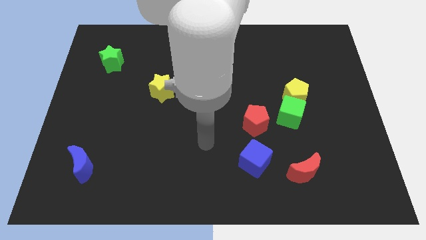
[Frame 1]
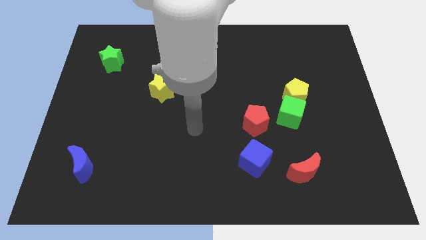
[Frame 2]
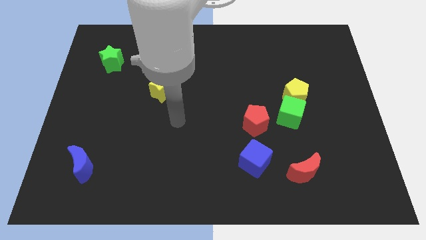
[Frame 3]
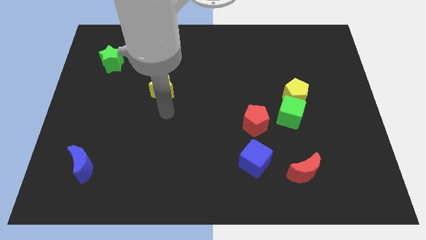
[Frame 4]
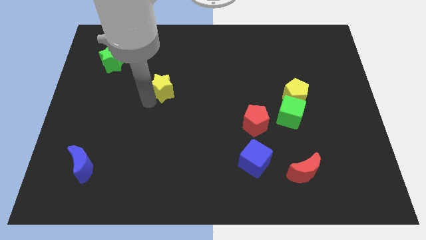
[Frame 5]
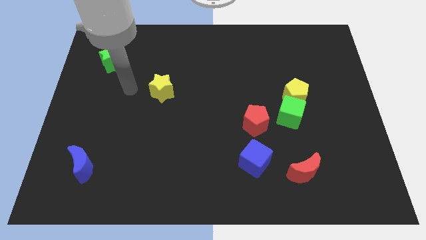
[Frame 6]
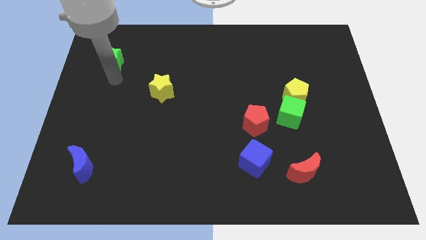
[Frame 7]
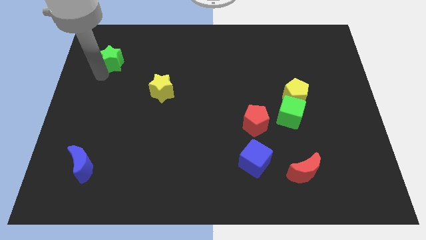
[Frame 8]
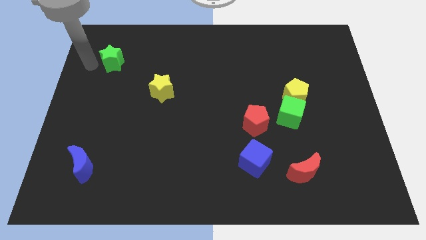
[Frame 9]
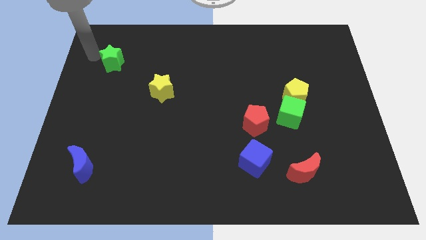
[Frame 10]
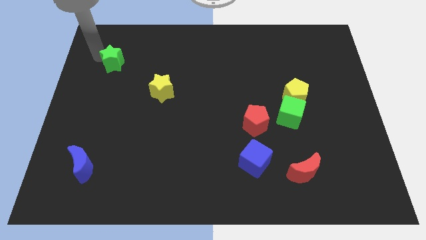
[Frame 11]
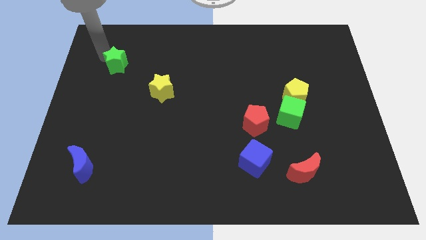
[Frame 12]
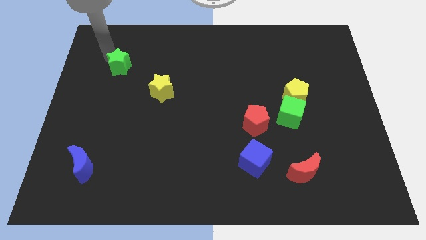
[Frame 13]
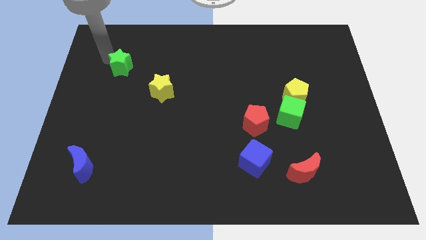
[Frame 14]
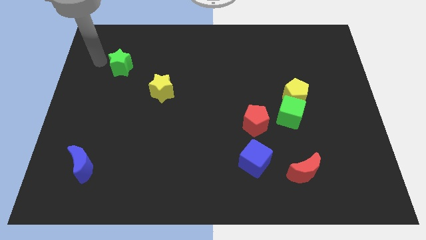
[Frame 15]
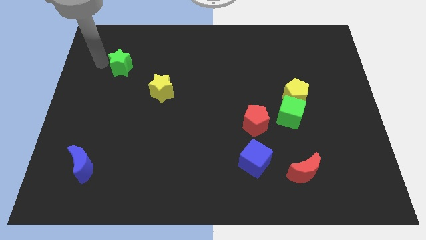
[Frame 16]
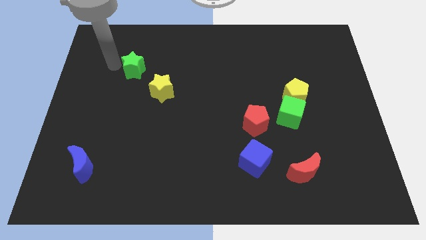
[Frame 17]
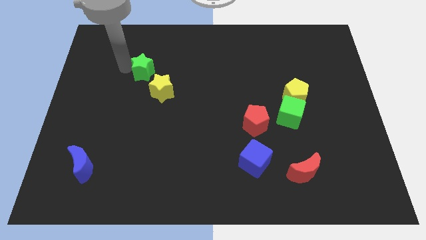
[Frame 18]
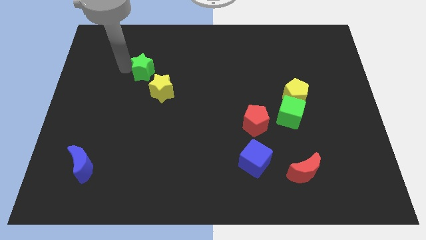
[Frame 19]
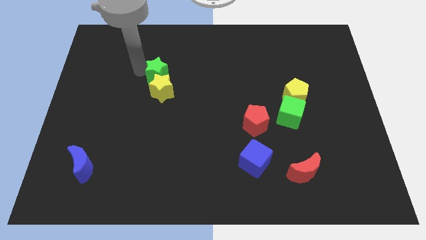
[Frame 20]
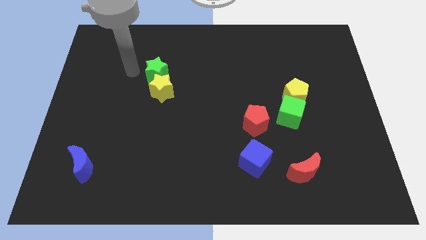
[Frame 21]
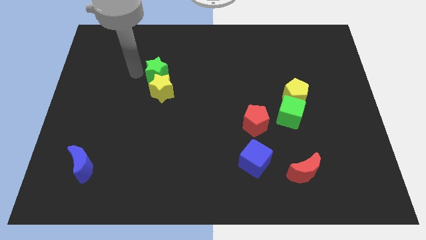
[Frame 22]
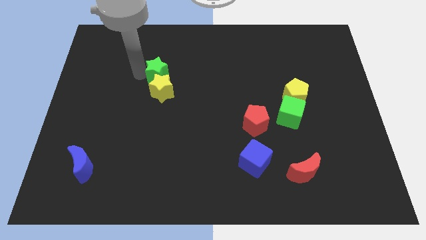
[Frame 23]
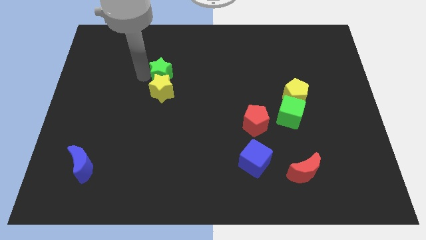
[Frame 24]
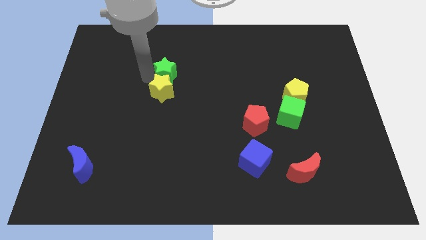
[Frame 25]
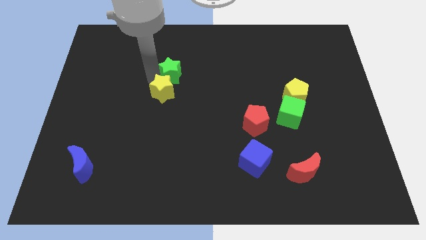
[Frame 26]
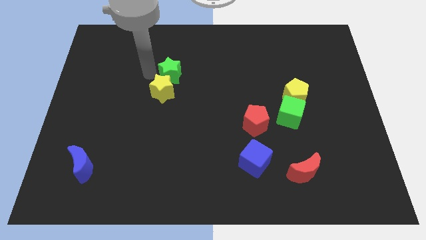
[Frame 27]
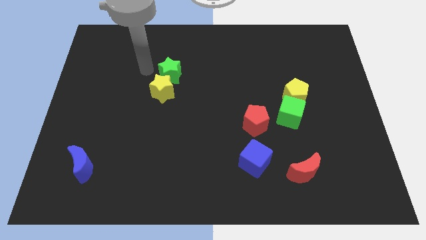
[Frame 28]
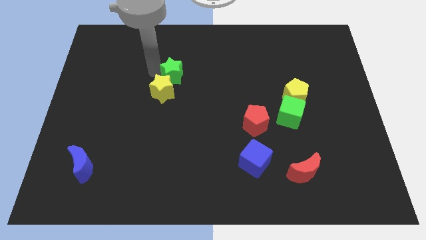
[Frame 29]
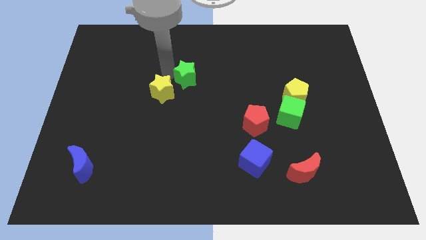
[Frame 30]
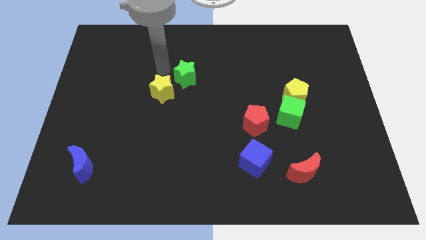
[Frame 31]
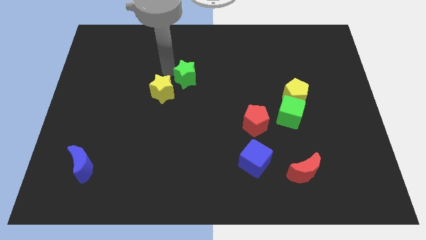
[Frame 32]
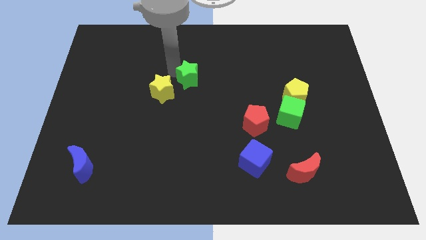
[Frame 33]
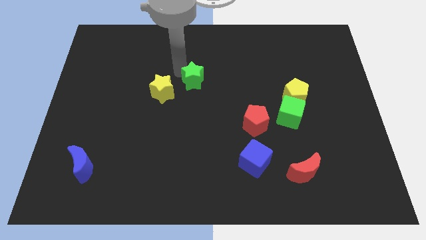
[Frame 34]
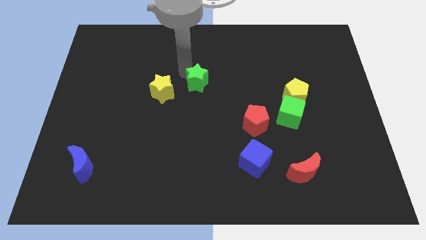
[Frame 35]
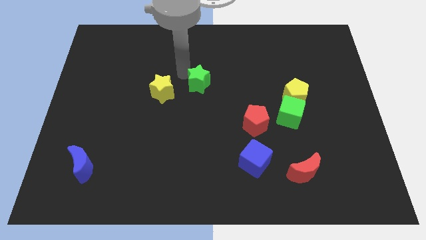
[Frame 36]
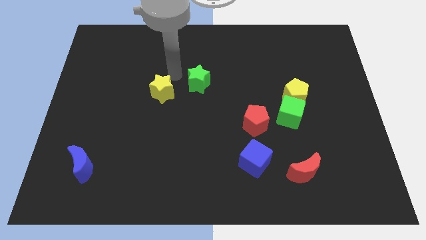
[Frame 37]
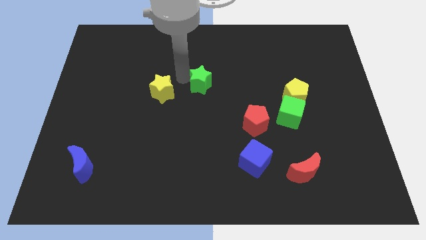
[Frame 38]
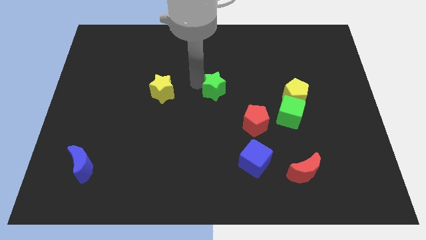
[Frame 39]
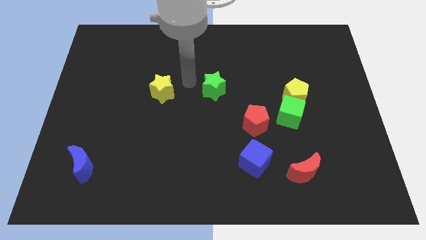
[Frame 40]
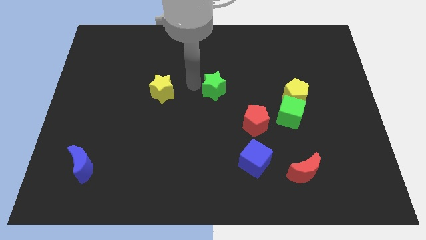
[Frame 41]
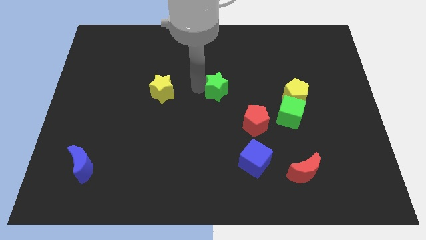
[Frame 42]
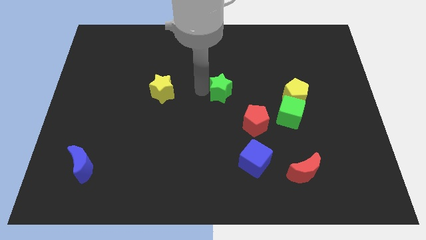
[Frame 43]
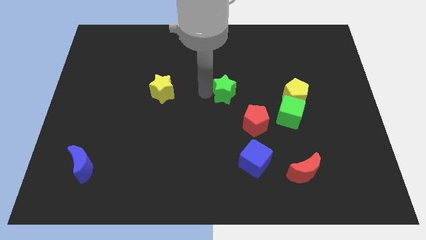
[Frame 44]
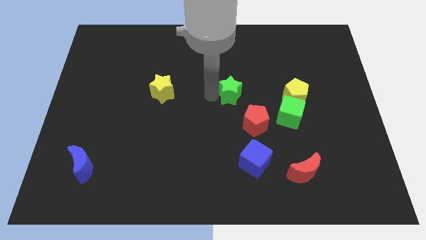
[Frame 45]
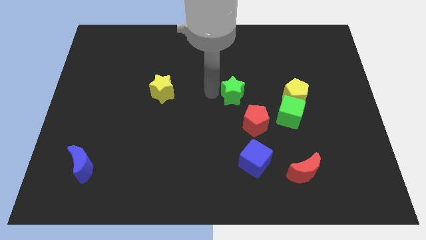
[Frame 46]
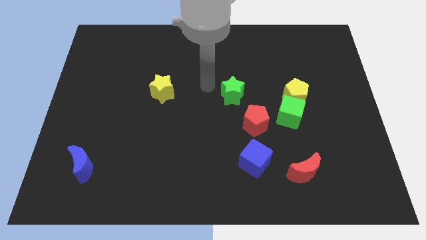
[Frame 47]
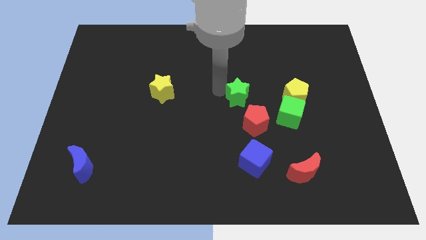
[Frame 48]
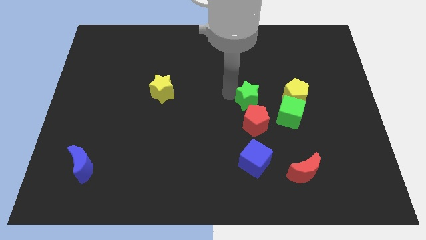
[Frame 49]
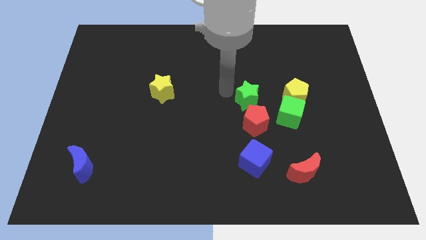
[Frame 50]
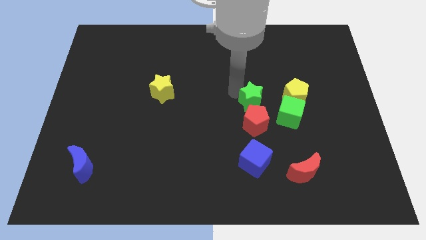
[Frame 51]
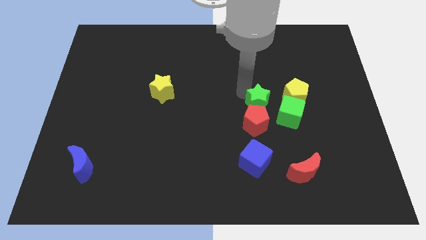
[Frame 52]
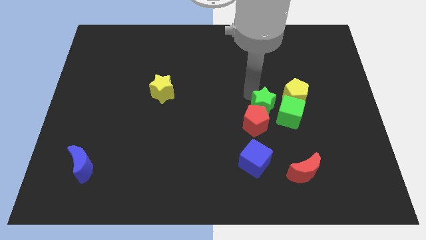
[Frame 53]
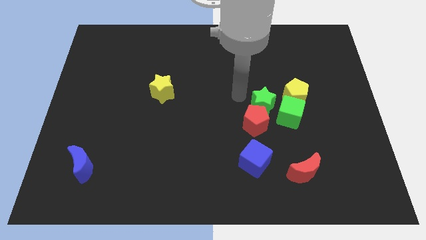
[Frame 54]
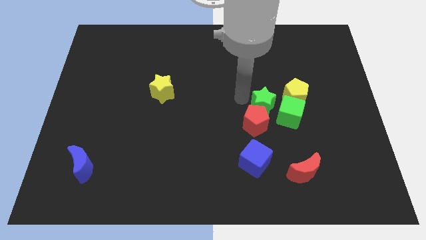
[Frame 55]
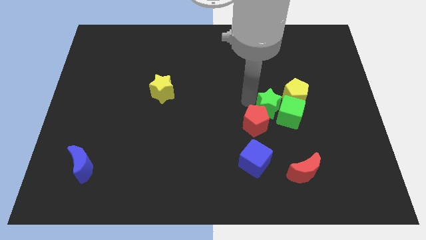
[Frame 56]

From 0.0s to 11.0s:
put the green star towards the green cube

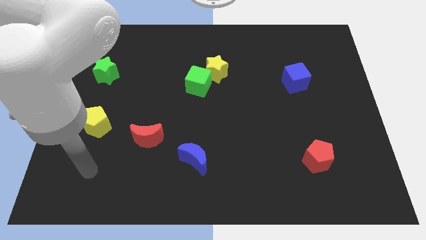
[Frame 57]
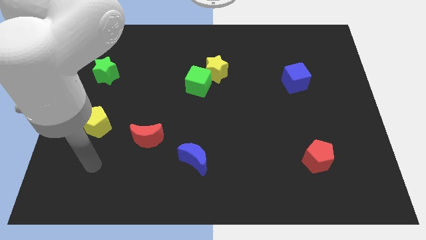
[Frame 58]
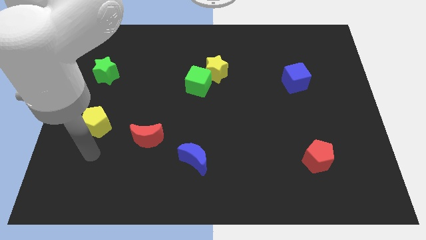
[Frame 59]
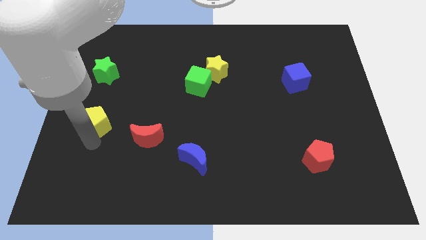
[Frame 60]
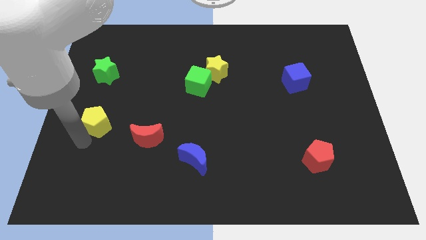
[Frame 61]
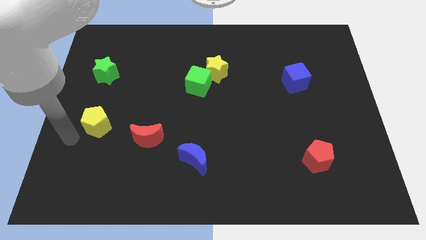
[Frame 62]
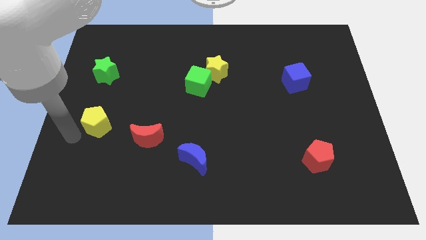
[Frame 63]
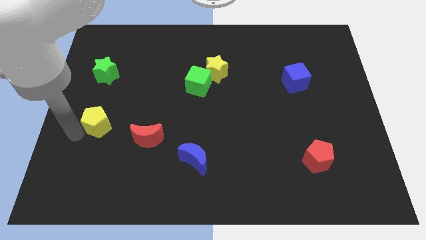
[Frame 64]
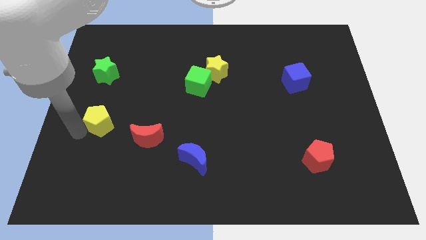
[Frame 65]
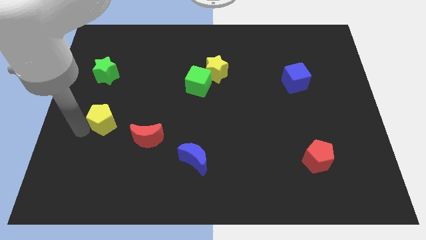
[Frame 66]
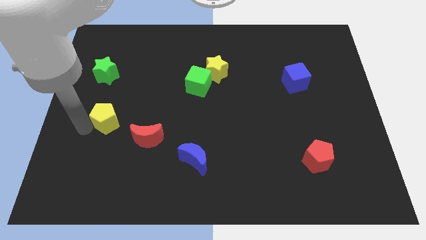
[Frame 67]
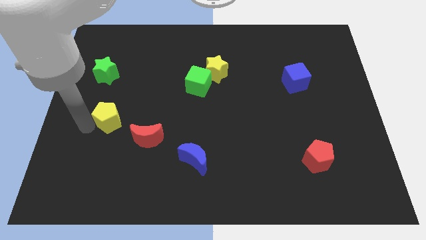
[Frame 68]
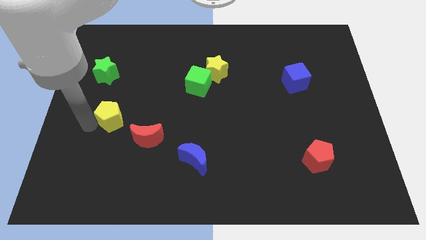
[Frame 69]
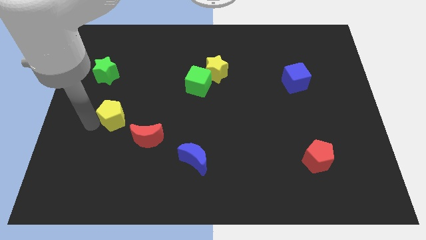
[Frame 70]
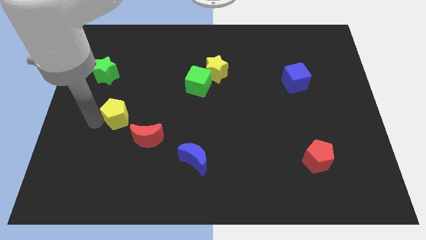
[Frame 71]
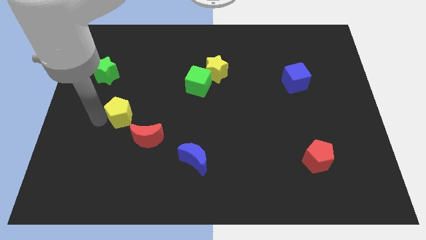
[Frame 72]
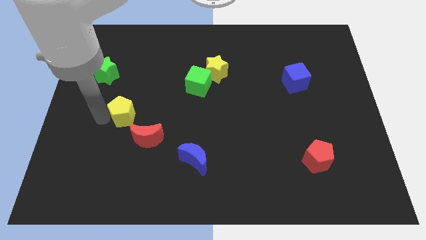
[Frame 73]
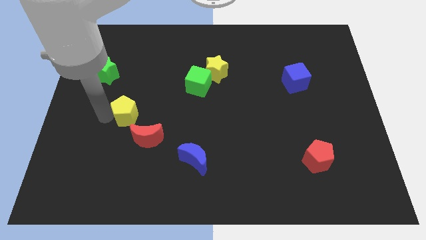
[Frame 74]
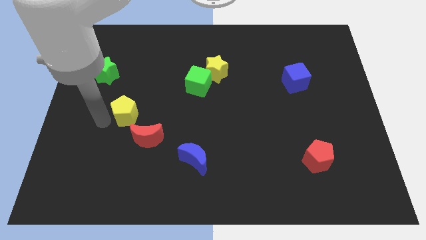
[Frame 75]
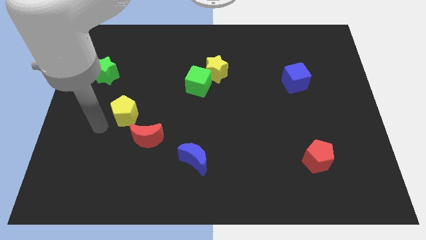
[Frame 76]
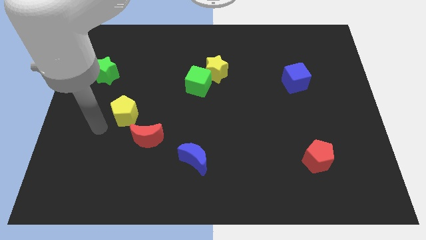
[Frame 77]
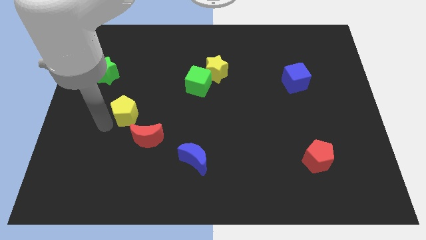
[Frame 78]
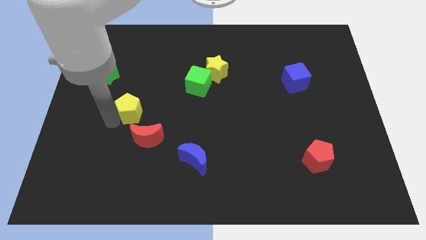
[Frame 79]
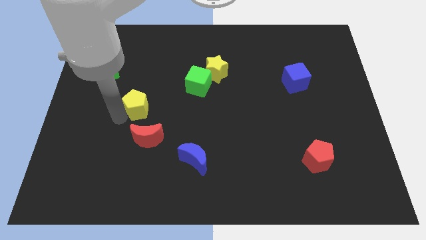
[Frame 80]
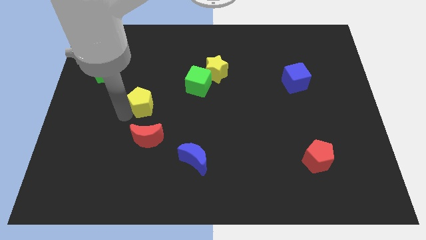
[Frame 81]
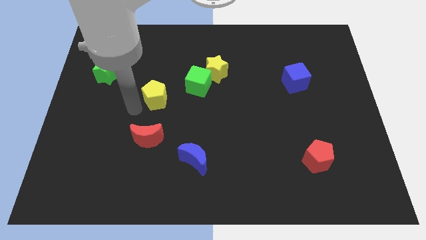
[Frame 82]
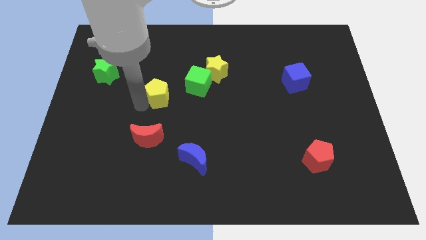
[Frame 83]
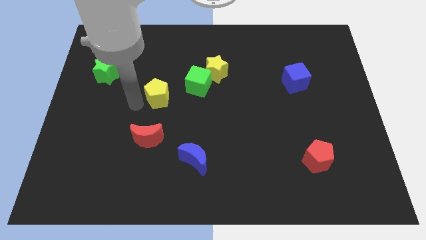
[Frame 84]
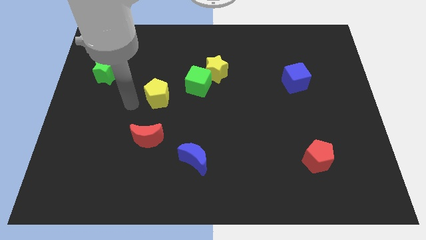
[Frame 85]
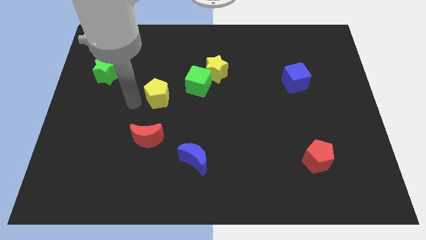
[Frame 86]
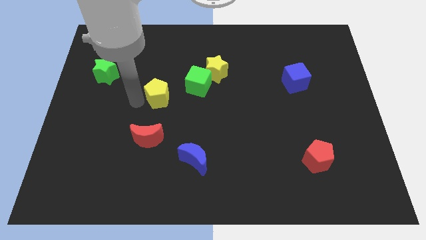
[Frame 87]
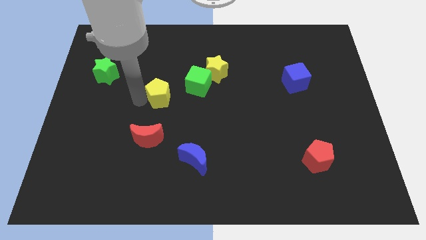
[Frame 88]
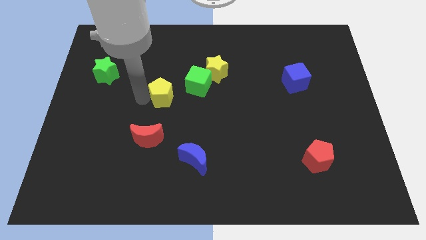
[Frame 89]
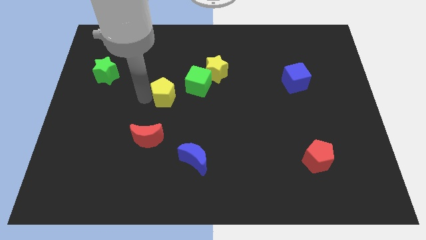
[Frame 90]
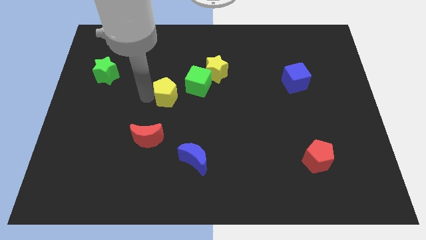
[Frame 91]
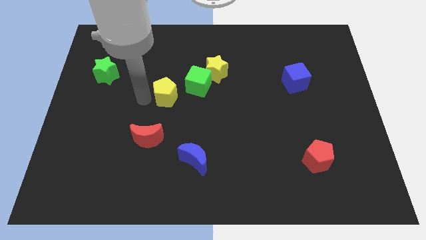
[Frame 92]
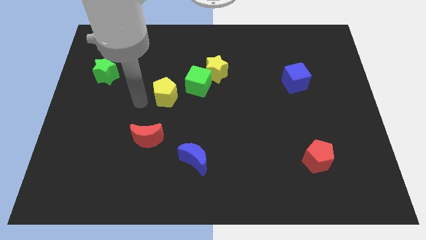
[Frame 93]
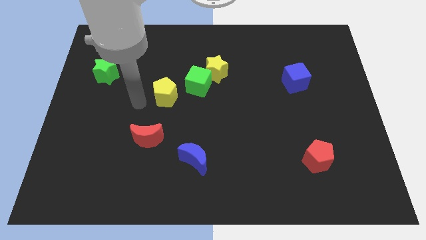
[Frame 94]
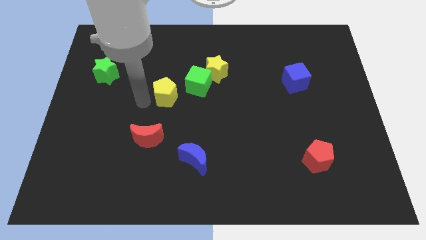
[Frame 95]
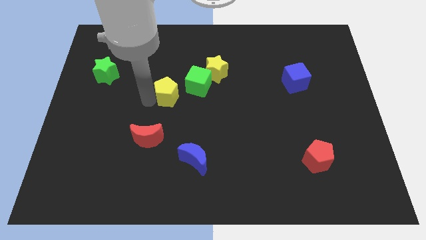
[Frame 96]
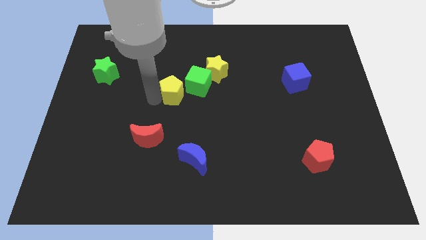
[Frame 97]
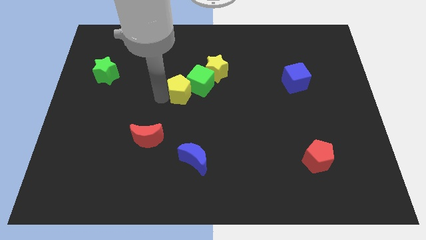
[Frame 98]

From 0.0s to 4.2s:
move the yellow pentagon to the green cube
